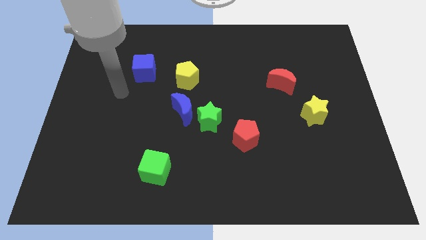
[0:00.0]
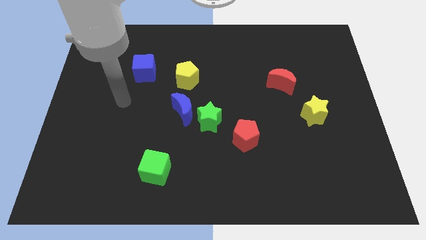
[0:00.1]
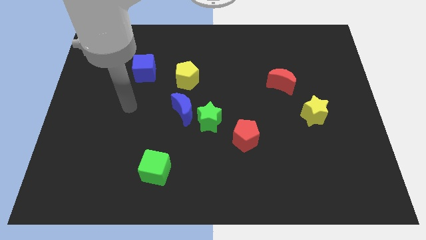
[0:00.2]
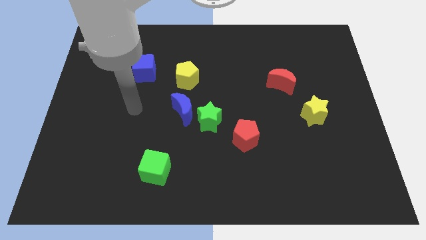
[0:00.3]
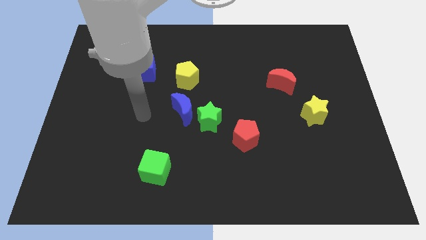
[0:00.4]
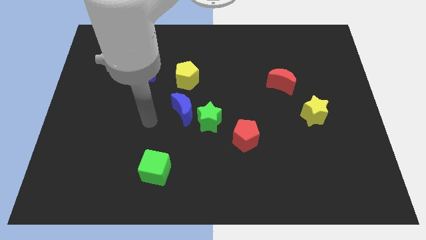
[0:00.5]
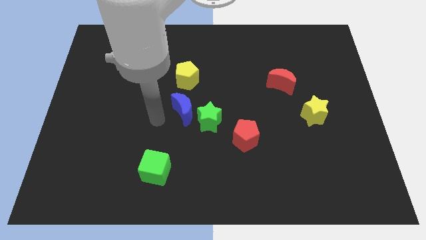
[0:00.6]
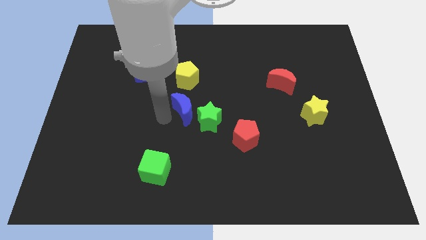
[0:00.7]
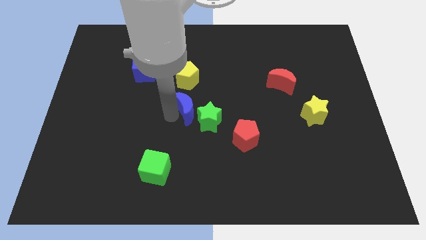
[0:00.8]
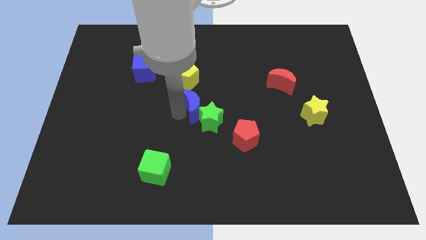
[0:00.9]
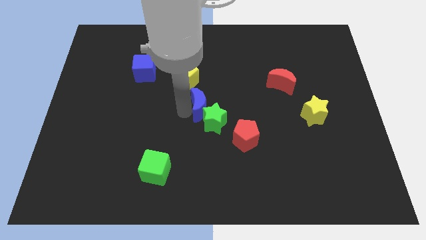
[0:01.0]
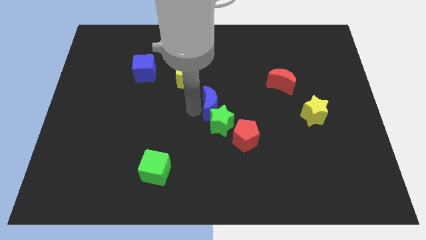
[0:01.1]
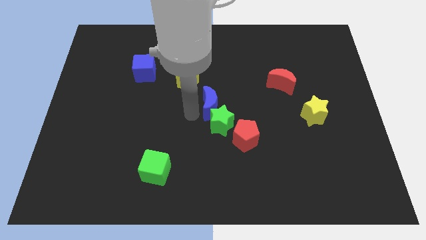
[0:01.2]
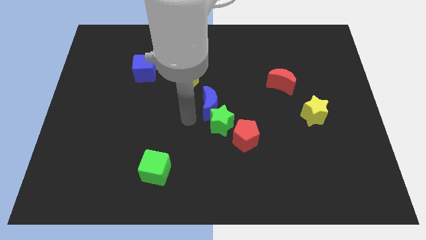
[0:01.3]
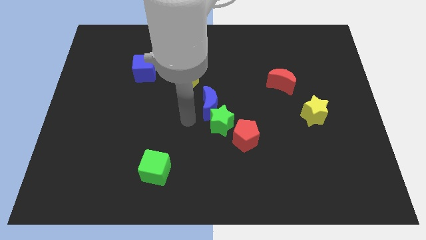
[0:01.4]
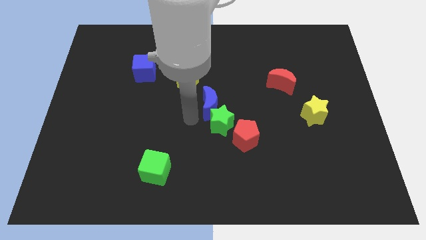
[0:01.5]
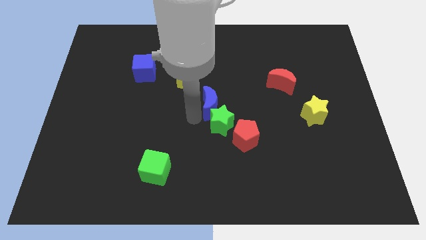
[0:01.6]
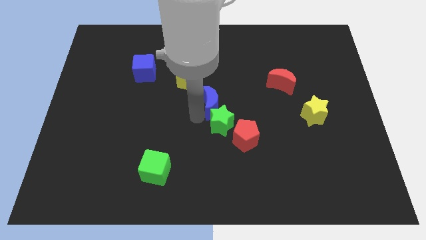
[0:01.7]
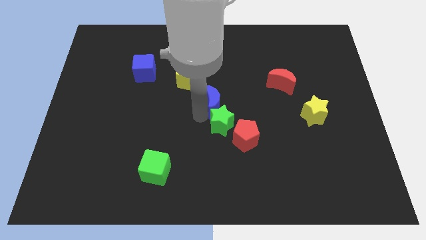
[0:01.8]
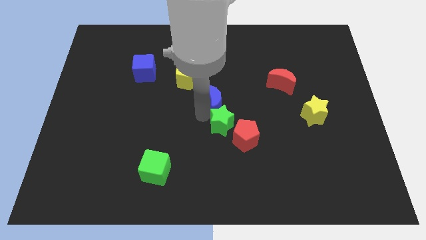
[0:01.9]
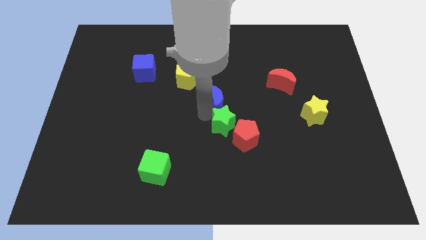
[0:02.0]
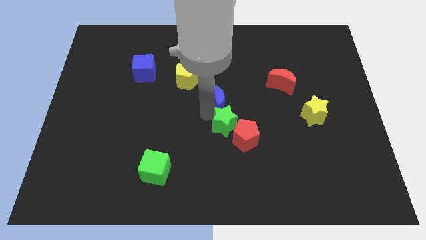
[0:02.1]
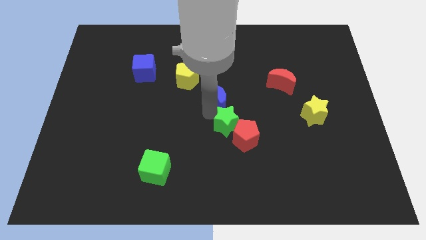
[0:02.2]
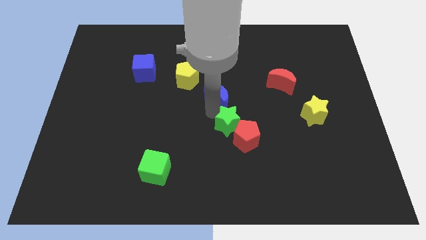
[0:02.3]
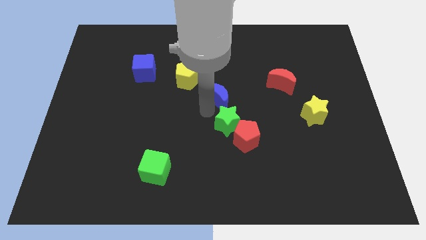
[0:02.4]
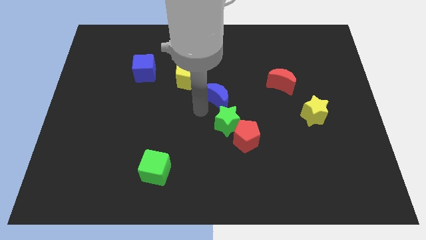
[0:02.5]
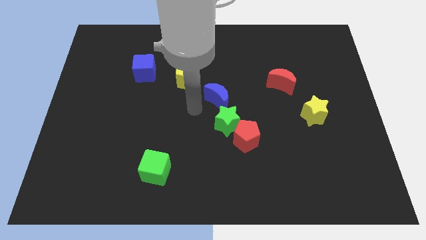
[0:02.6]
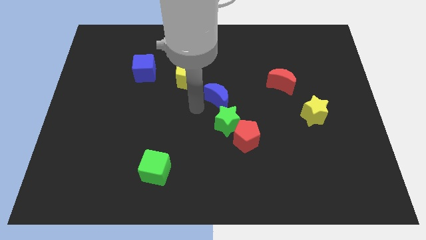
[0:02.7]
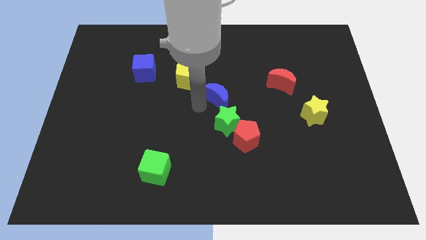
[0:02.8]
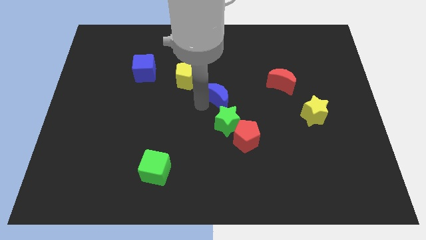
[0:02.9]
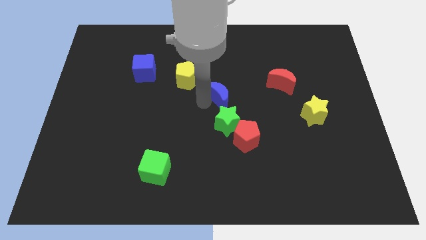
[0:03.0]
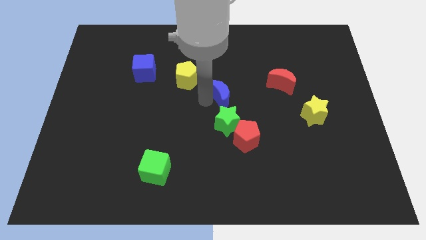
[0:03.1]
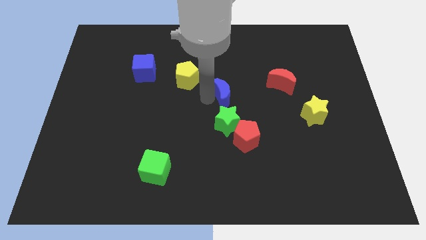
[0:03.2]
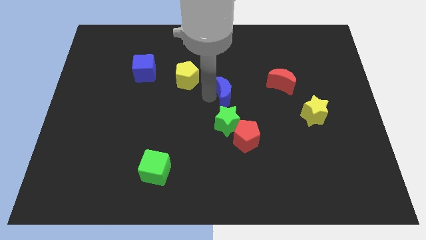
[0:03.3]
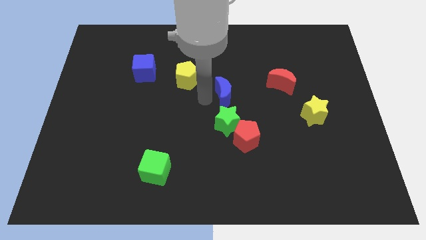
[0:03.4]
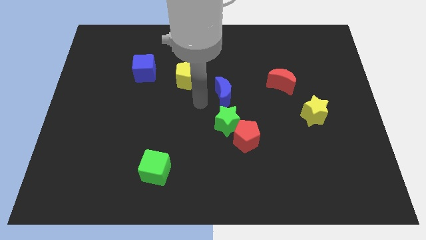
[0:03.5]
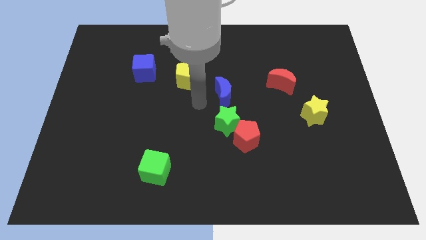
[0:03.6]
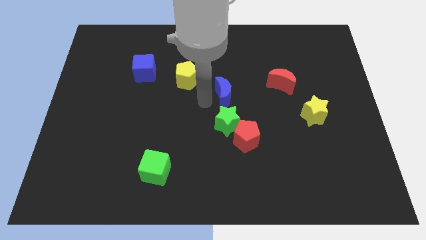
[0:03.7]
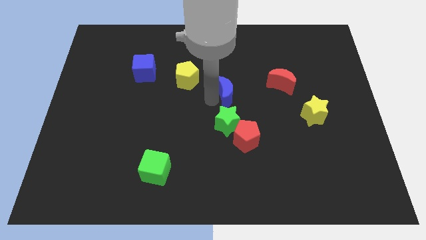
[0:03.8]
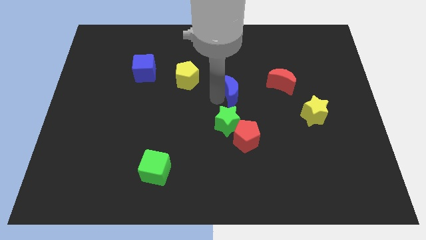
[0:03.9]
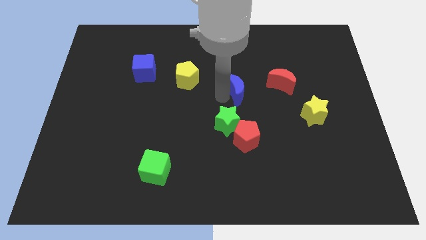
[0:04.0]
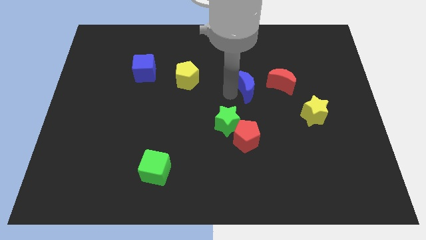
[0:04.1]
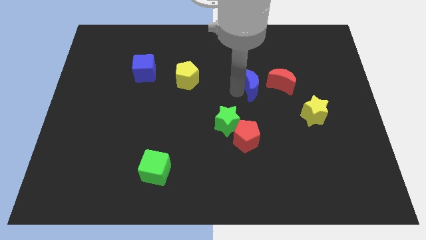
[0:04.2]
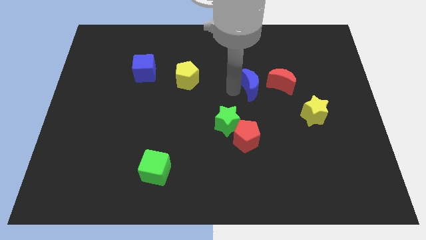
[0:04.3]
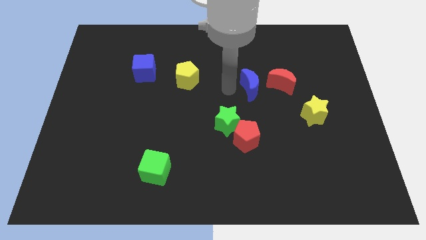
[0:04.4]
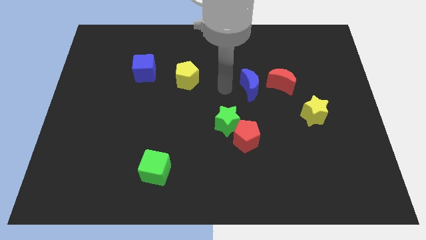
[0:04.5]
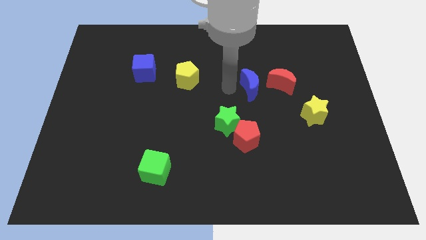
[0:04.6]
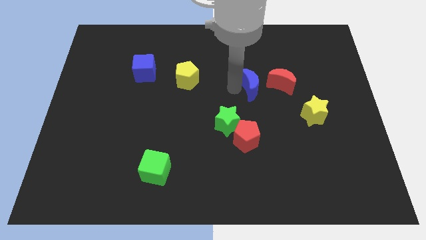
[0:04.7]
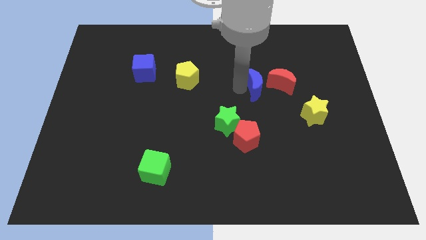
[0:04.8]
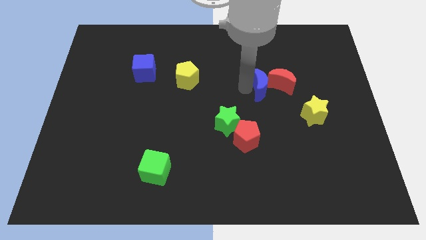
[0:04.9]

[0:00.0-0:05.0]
slide the blue moon to the red moon

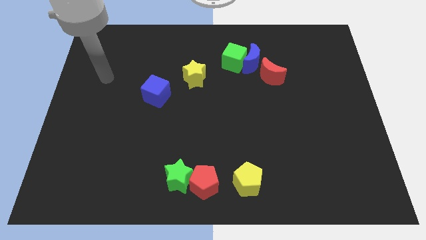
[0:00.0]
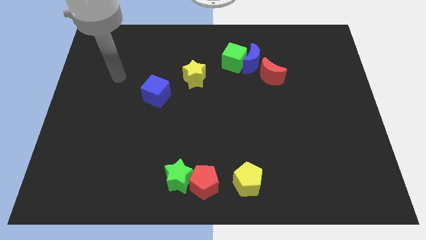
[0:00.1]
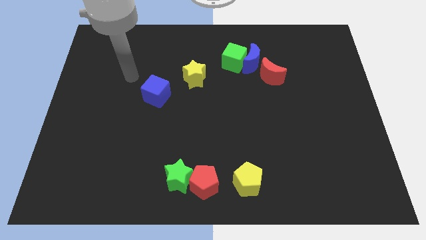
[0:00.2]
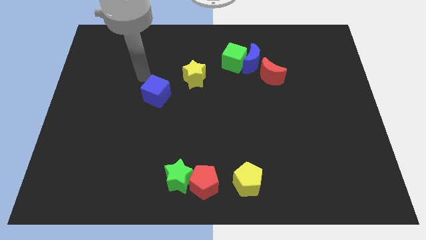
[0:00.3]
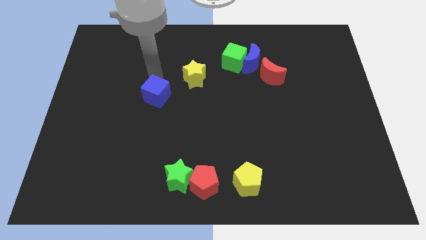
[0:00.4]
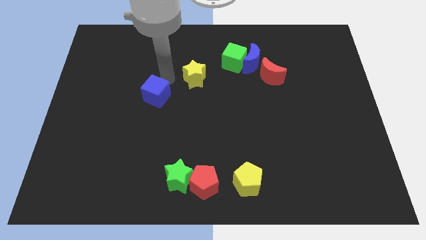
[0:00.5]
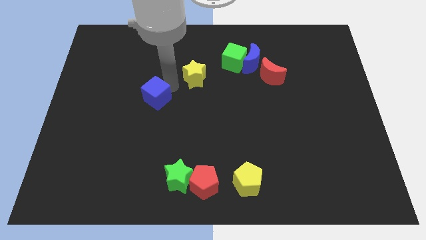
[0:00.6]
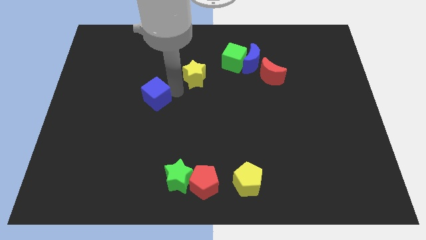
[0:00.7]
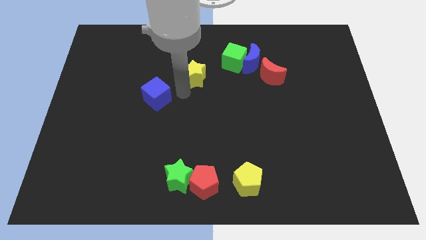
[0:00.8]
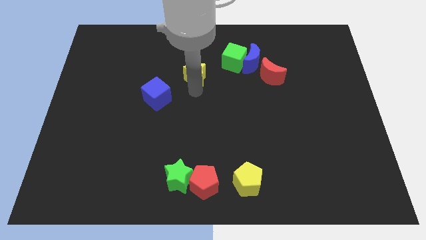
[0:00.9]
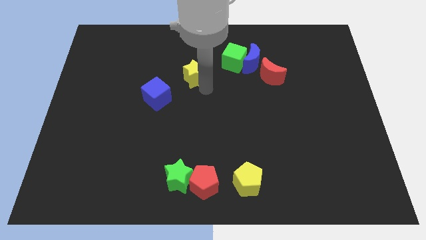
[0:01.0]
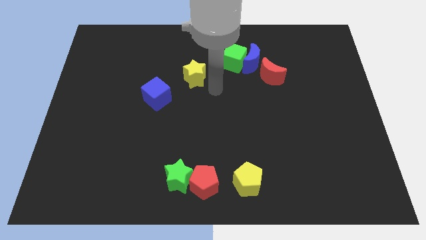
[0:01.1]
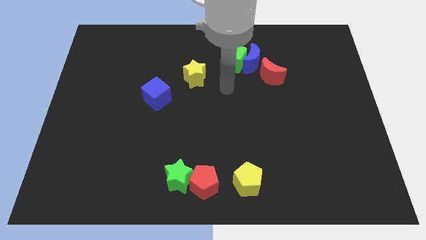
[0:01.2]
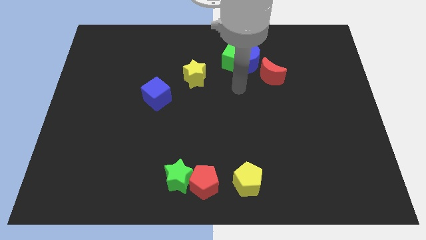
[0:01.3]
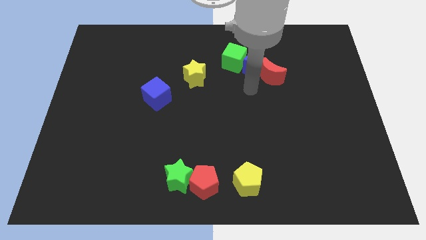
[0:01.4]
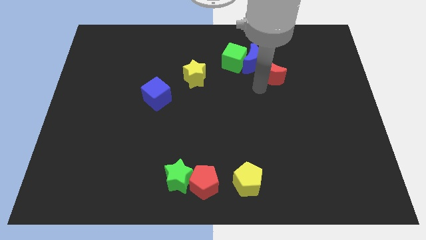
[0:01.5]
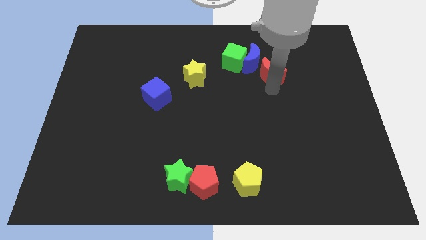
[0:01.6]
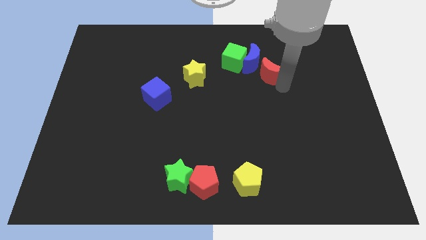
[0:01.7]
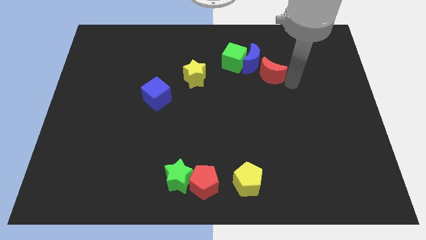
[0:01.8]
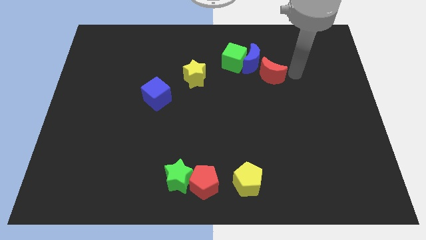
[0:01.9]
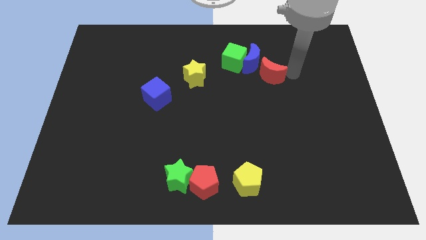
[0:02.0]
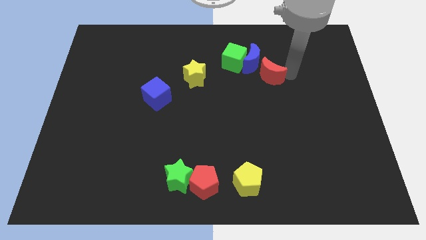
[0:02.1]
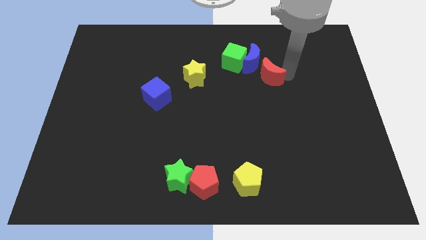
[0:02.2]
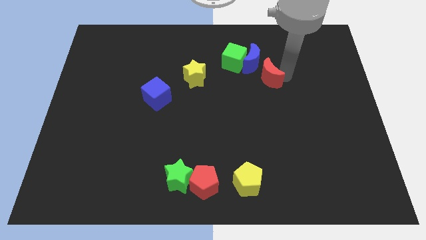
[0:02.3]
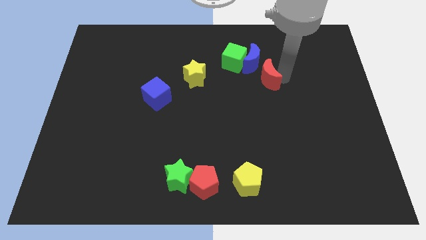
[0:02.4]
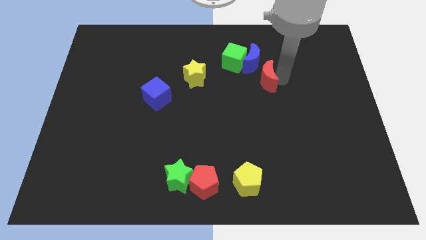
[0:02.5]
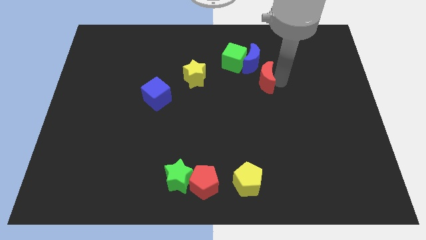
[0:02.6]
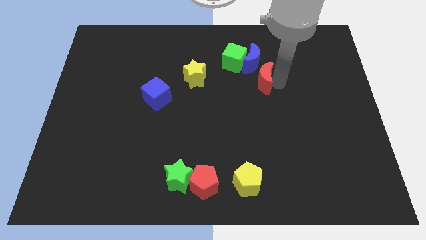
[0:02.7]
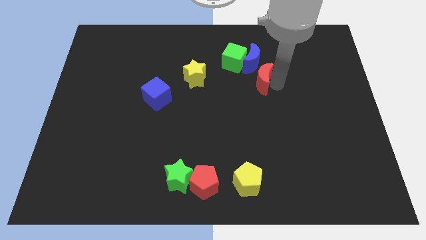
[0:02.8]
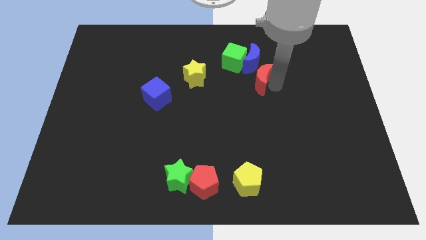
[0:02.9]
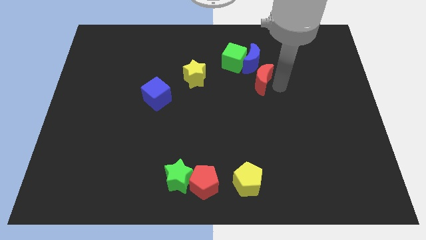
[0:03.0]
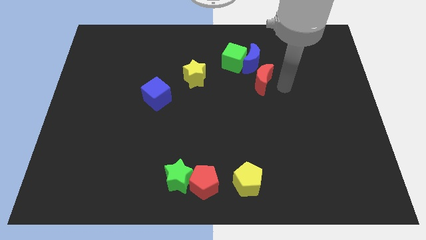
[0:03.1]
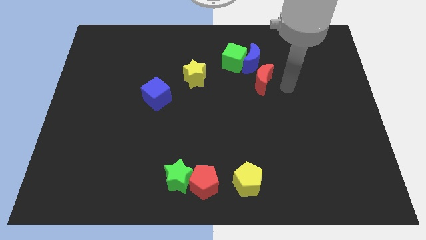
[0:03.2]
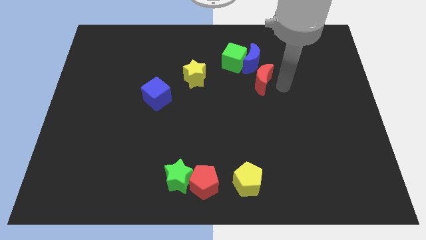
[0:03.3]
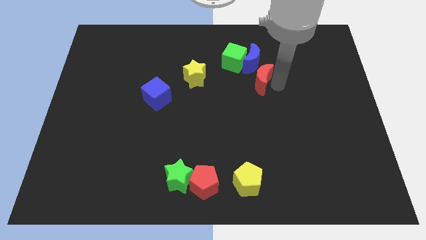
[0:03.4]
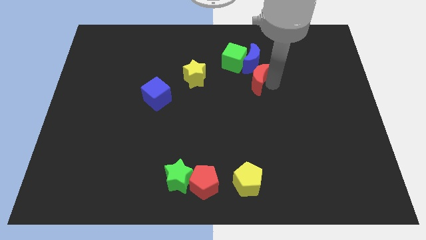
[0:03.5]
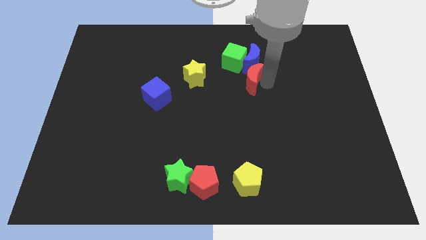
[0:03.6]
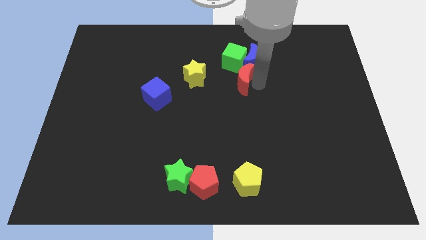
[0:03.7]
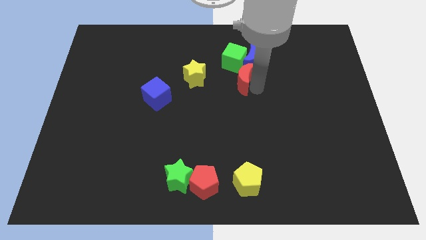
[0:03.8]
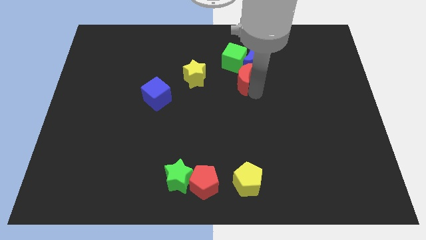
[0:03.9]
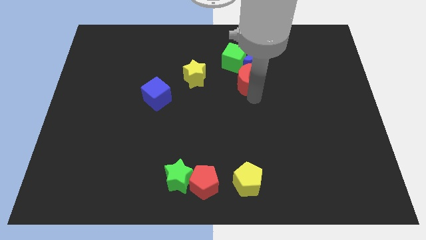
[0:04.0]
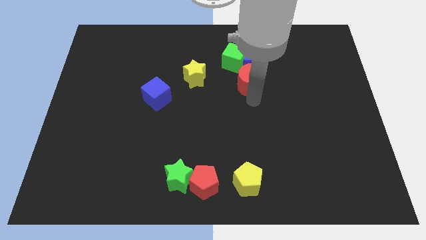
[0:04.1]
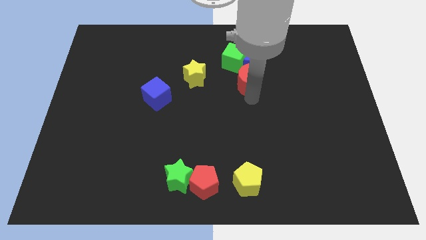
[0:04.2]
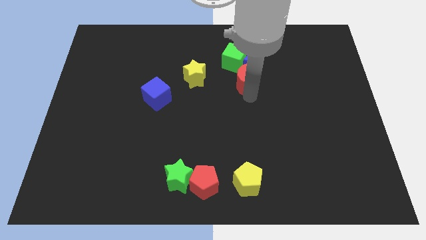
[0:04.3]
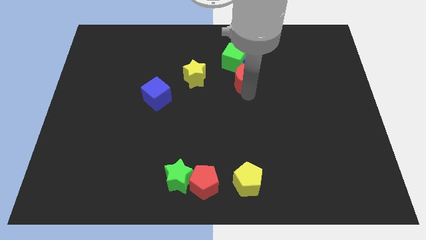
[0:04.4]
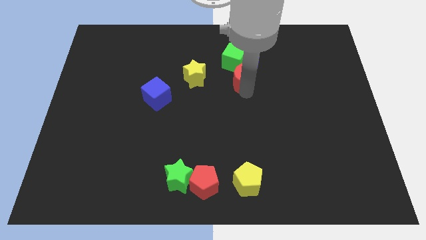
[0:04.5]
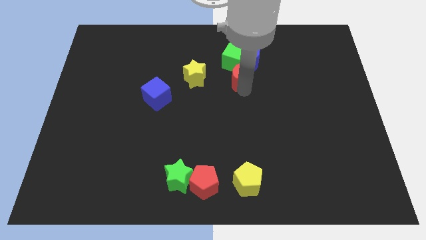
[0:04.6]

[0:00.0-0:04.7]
slide the red moon to the green cube
